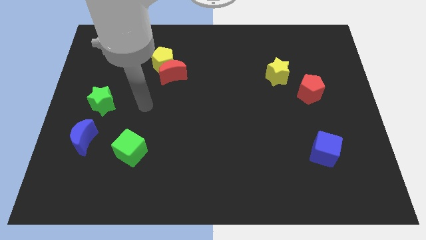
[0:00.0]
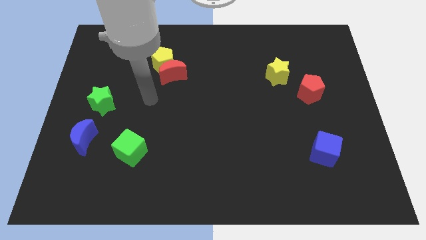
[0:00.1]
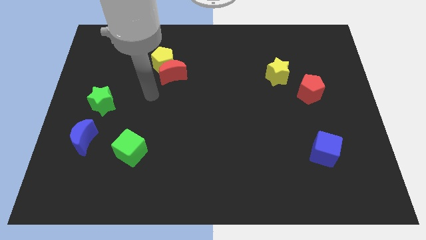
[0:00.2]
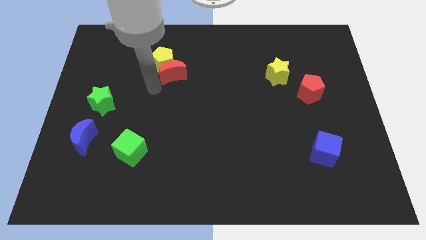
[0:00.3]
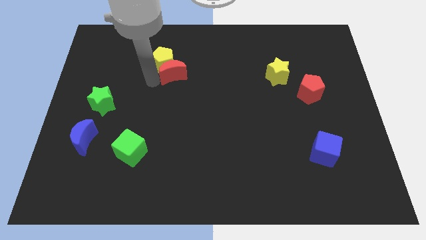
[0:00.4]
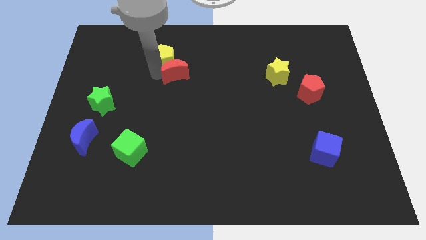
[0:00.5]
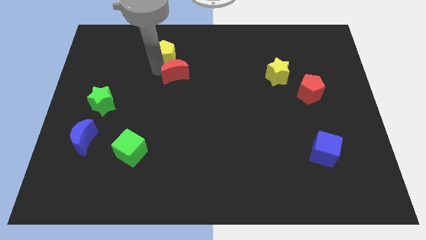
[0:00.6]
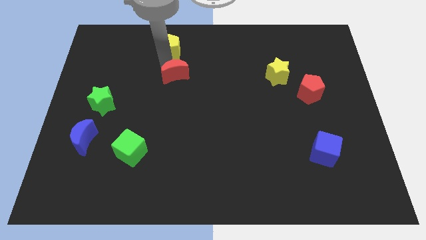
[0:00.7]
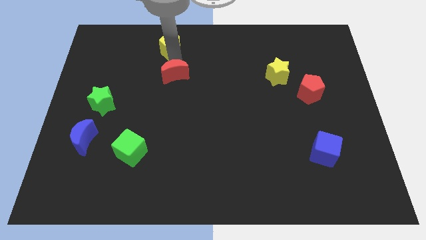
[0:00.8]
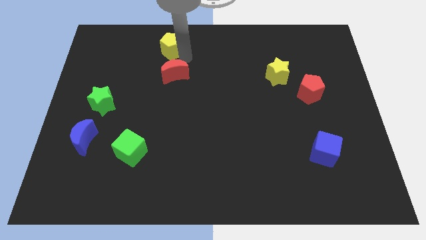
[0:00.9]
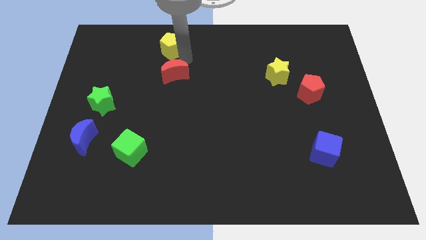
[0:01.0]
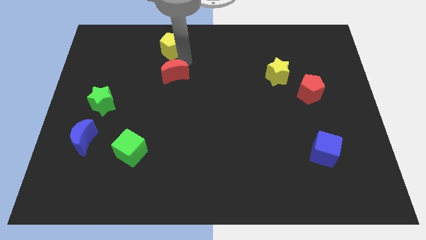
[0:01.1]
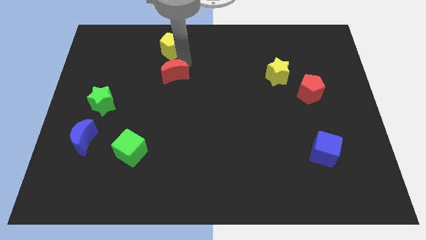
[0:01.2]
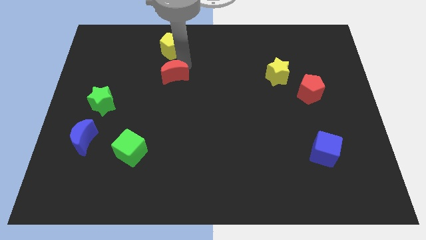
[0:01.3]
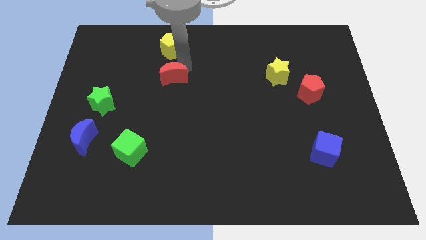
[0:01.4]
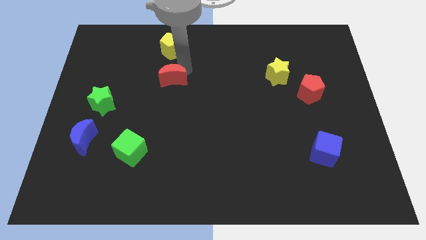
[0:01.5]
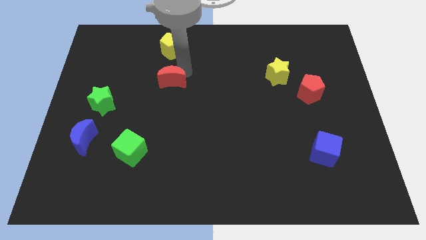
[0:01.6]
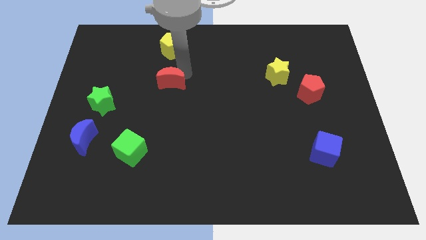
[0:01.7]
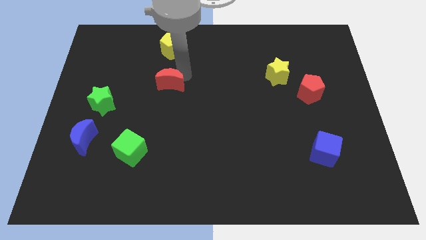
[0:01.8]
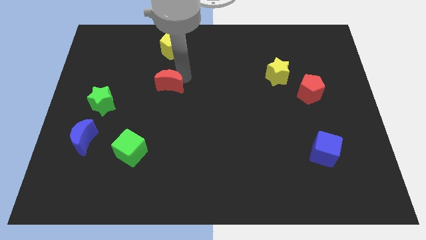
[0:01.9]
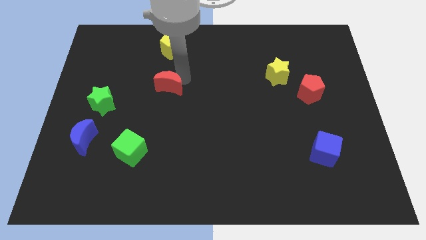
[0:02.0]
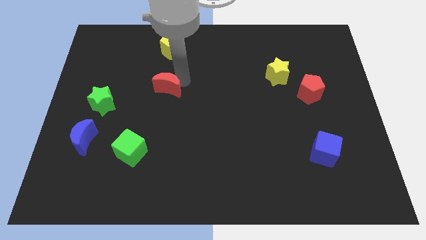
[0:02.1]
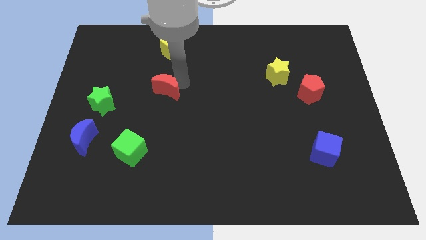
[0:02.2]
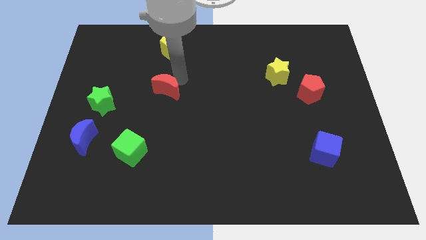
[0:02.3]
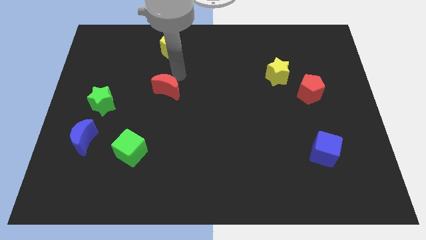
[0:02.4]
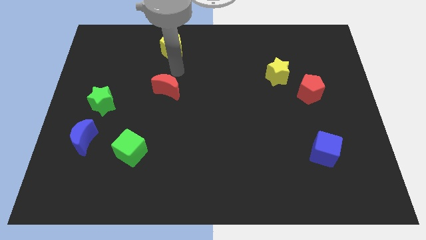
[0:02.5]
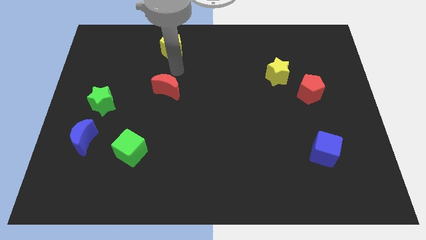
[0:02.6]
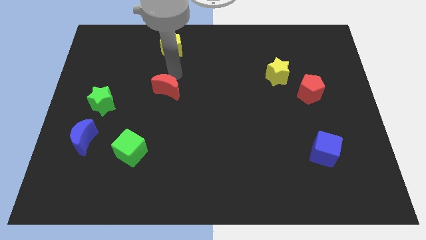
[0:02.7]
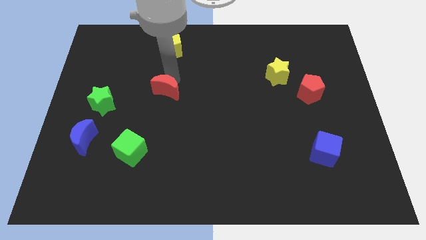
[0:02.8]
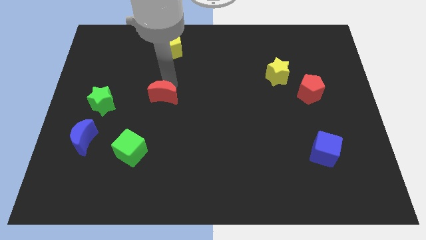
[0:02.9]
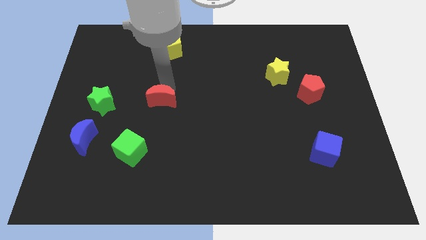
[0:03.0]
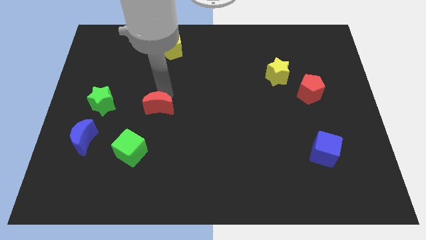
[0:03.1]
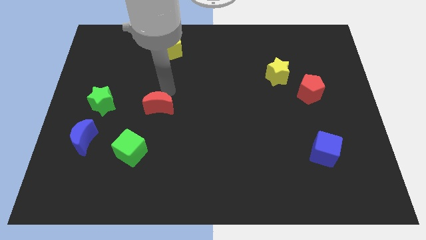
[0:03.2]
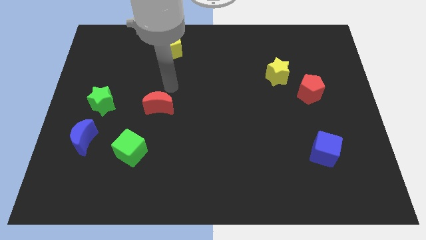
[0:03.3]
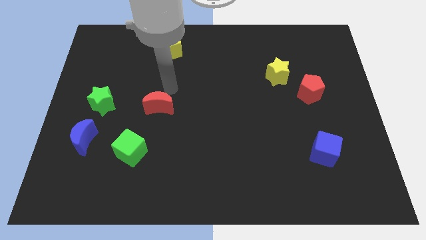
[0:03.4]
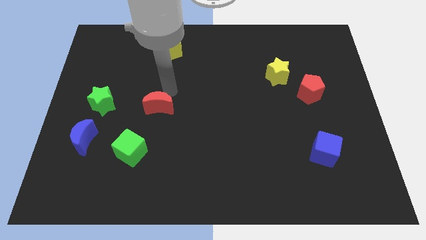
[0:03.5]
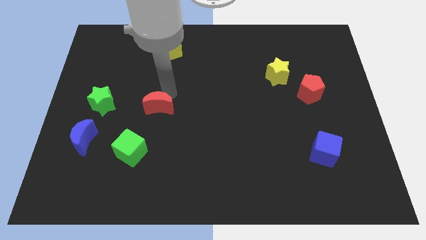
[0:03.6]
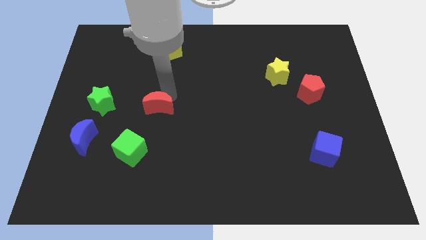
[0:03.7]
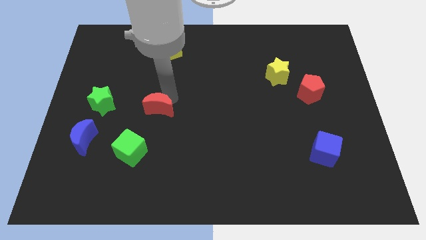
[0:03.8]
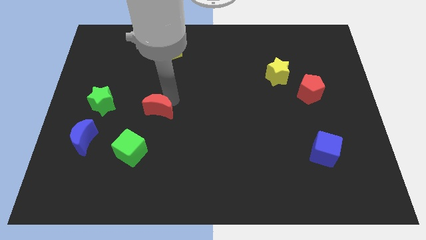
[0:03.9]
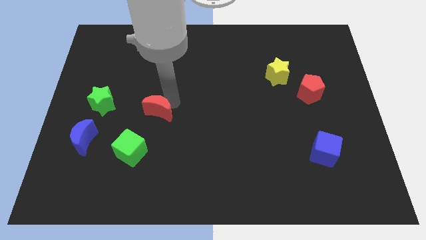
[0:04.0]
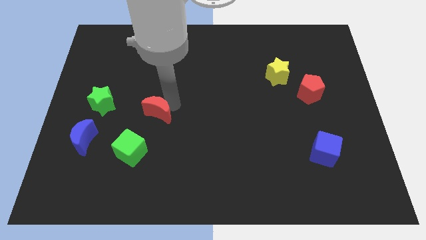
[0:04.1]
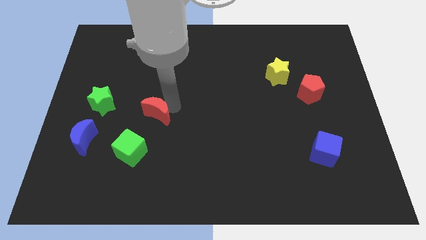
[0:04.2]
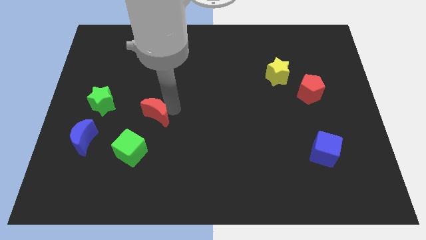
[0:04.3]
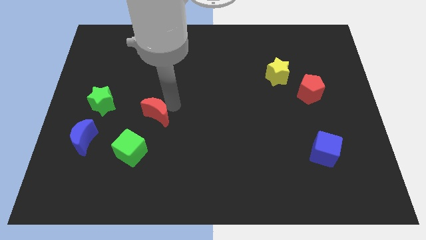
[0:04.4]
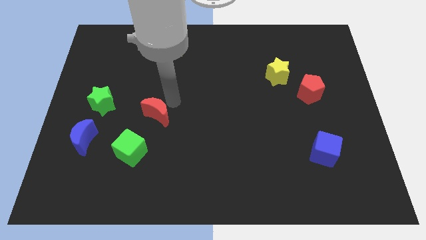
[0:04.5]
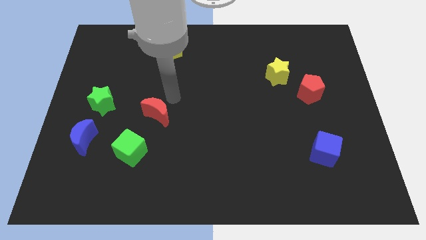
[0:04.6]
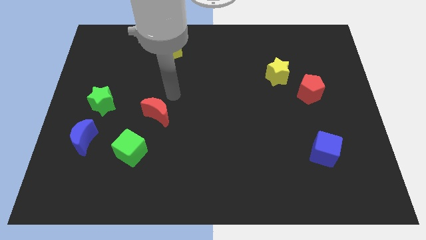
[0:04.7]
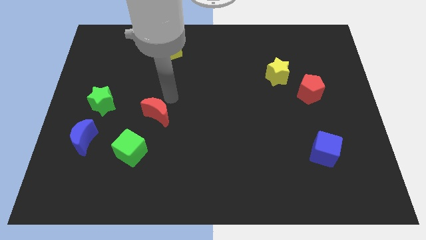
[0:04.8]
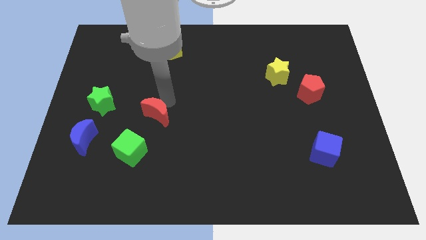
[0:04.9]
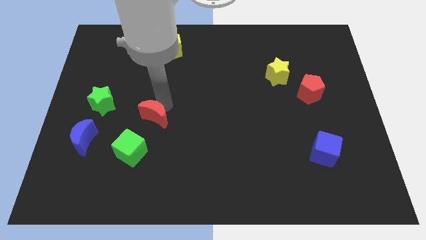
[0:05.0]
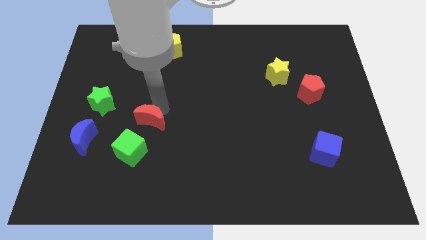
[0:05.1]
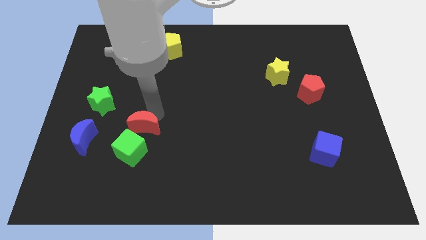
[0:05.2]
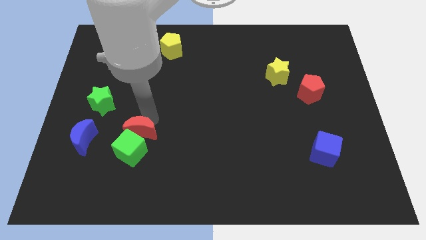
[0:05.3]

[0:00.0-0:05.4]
push the red moon next to the green cube

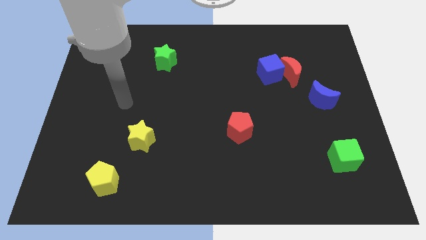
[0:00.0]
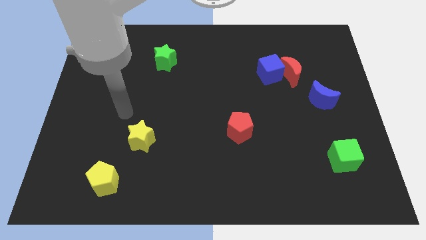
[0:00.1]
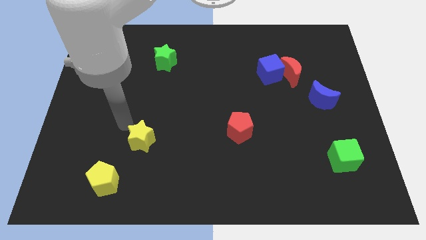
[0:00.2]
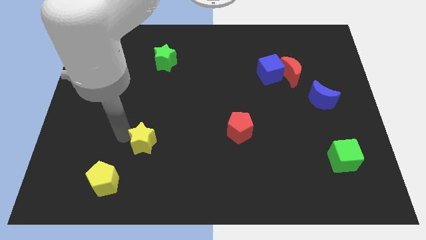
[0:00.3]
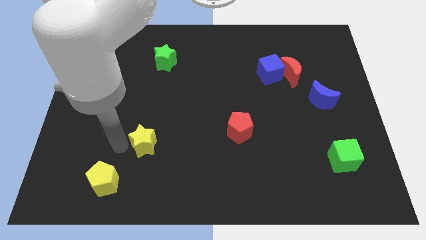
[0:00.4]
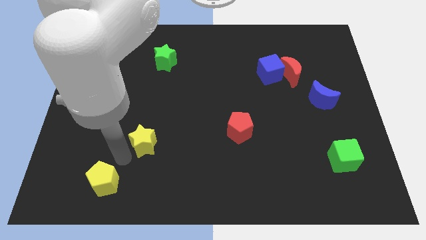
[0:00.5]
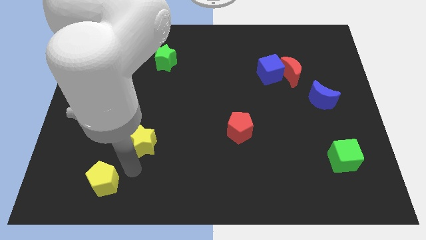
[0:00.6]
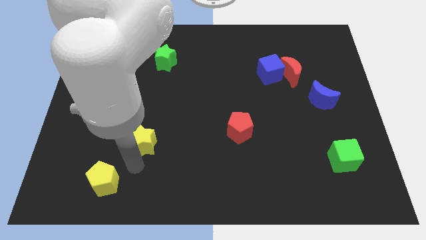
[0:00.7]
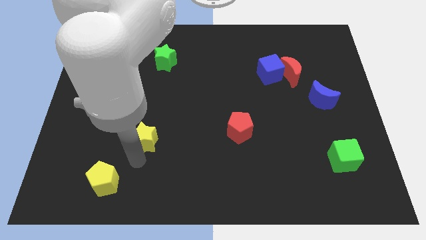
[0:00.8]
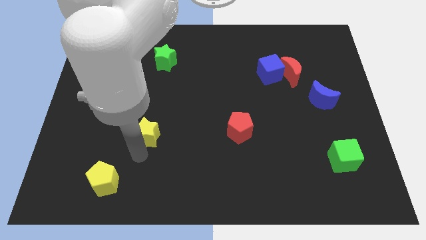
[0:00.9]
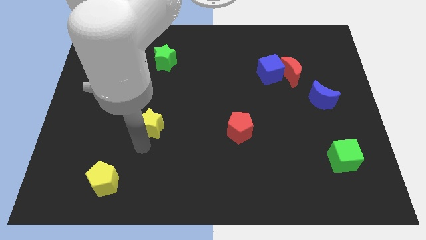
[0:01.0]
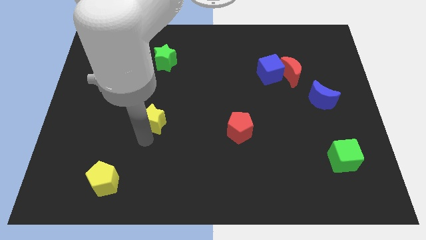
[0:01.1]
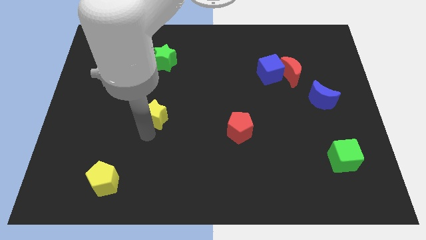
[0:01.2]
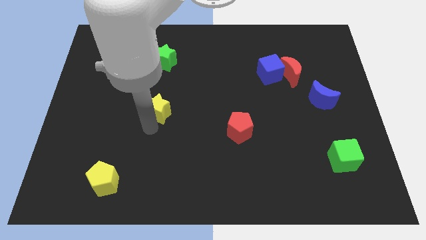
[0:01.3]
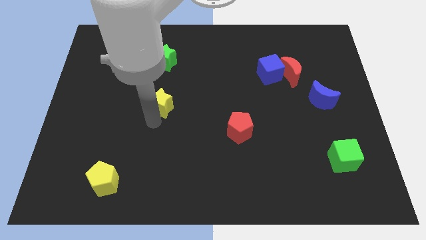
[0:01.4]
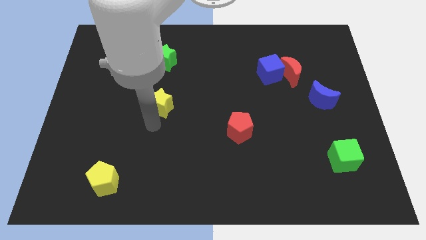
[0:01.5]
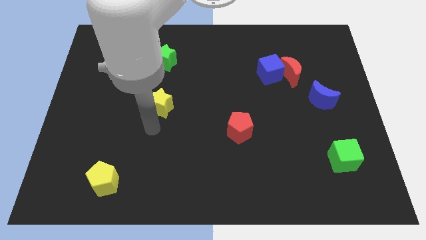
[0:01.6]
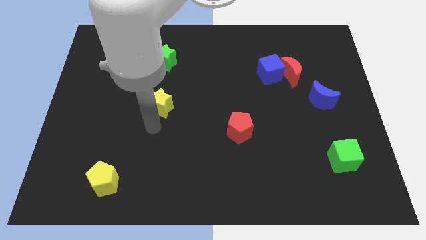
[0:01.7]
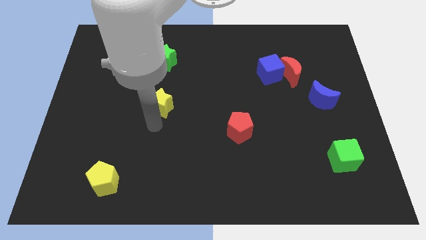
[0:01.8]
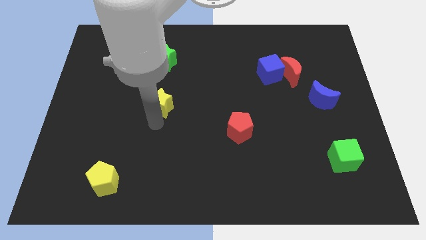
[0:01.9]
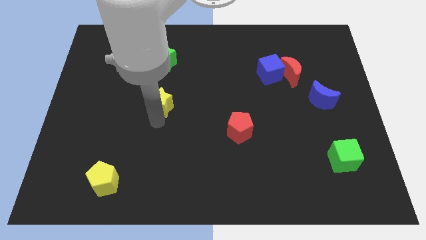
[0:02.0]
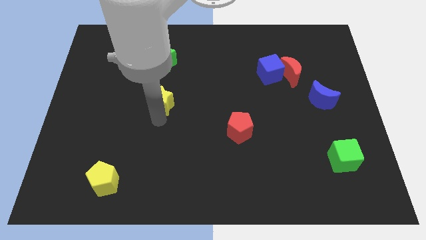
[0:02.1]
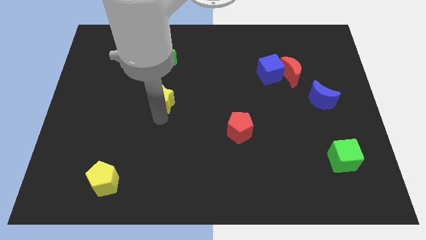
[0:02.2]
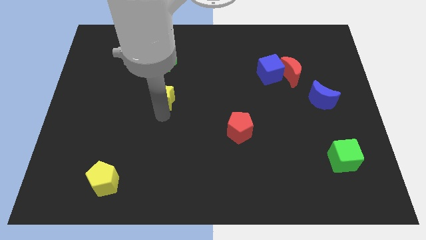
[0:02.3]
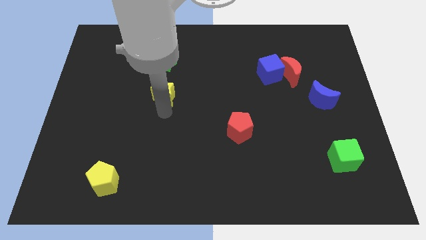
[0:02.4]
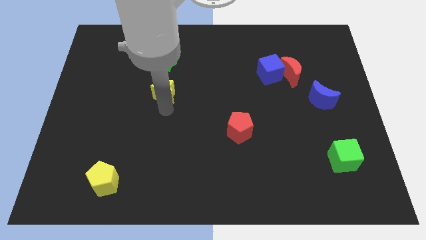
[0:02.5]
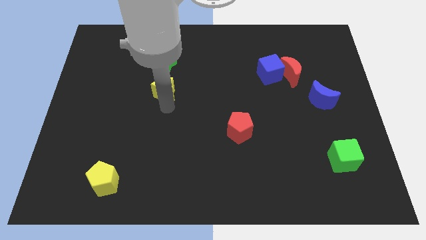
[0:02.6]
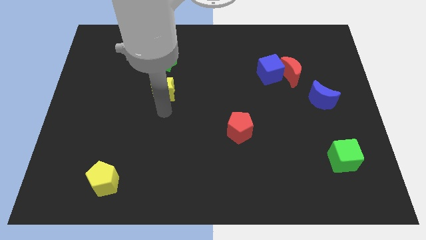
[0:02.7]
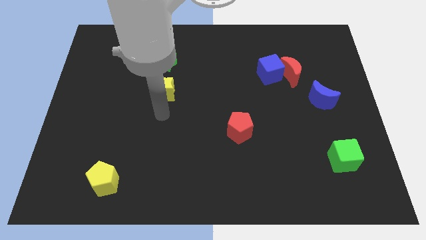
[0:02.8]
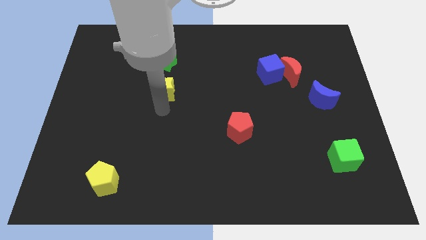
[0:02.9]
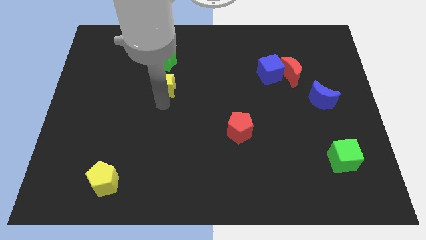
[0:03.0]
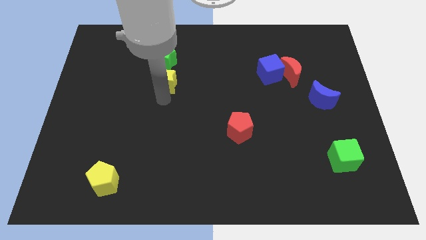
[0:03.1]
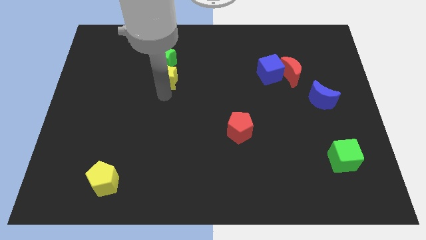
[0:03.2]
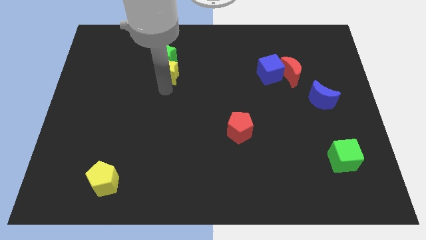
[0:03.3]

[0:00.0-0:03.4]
push the yellow star close to the green star
